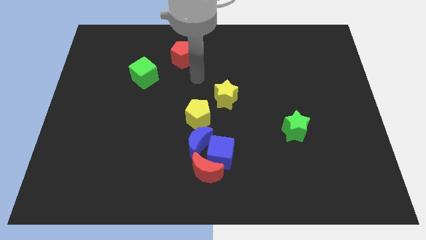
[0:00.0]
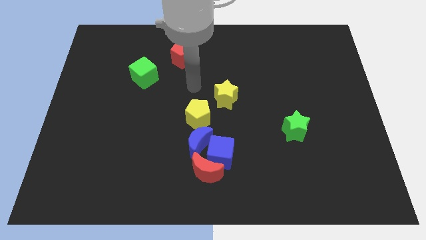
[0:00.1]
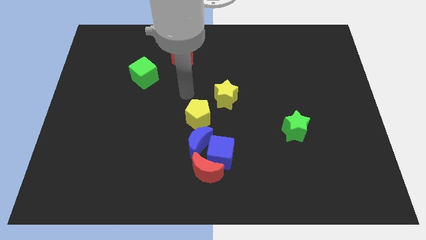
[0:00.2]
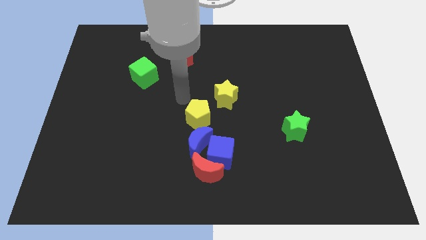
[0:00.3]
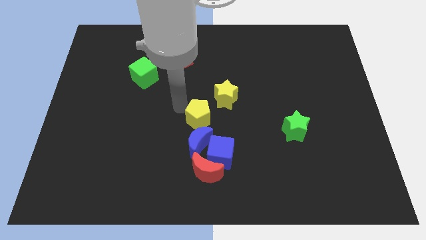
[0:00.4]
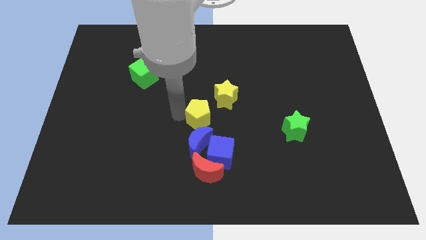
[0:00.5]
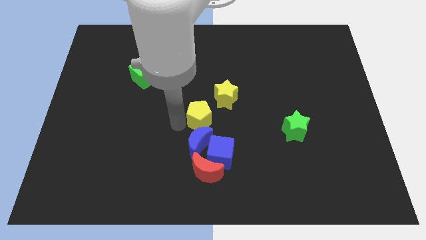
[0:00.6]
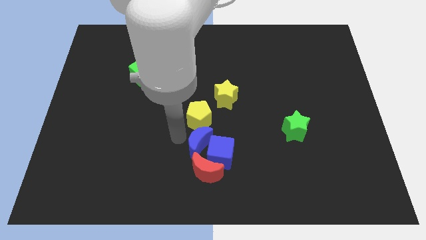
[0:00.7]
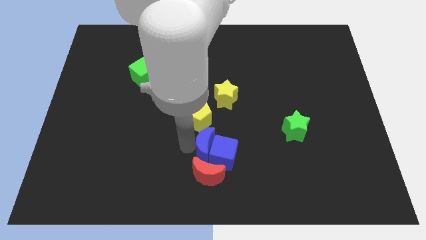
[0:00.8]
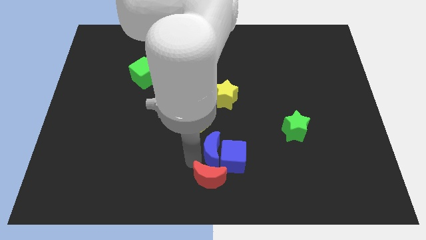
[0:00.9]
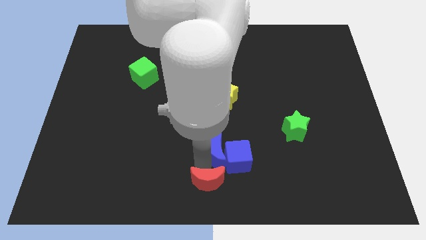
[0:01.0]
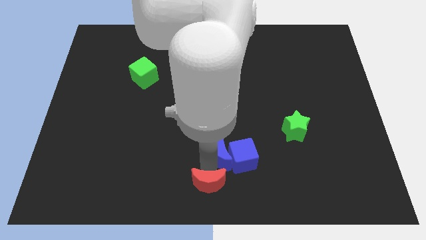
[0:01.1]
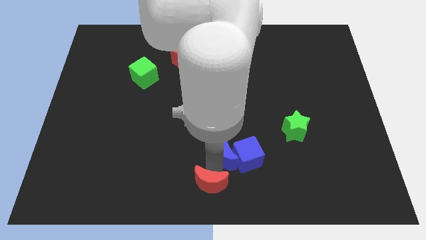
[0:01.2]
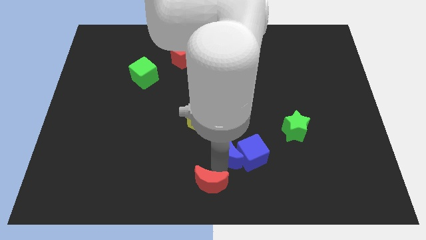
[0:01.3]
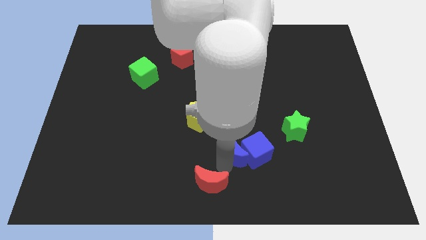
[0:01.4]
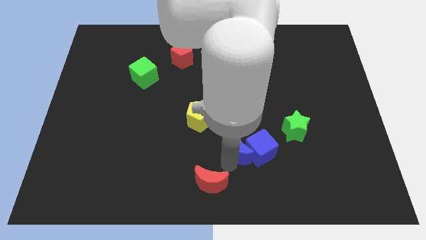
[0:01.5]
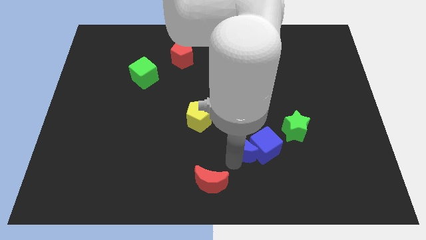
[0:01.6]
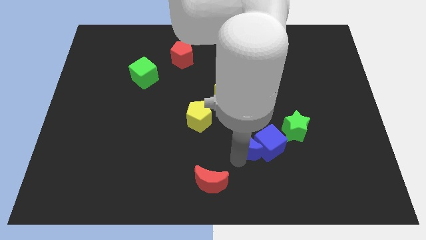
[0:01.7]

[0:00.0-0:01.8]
separate the blue cube from the red moon and blue moon

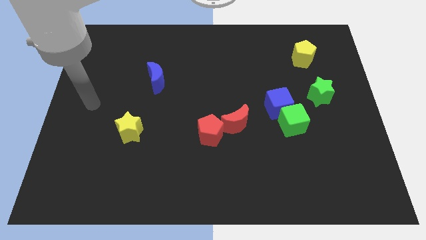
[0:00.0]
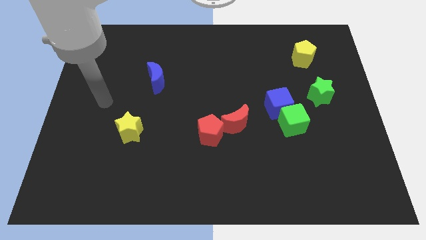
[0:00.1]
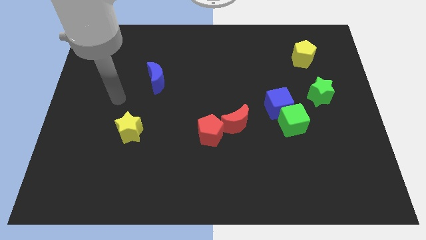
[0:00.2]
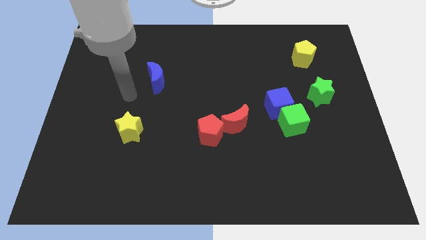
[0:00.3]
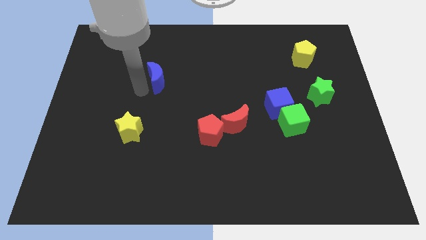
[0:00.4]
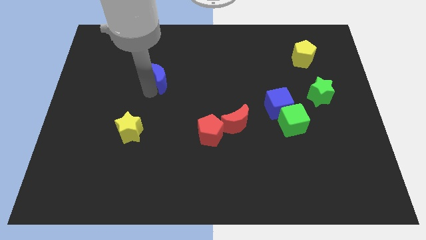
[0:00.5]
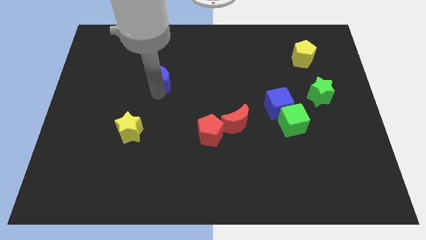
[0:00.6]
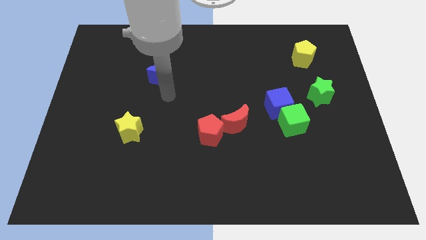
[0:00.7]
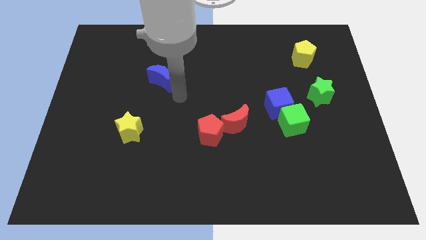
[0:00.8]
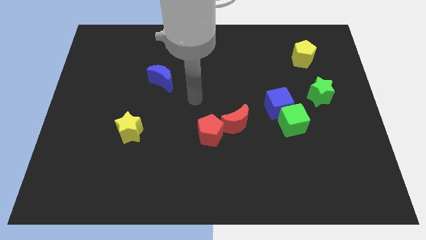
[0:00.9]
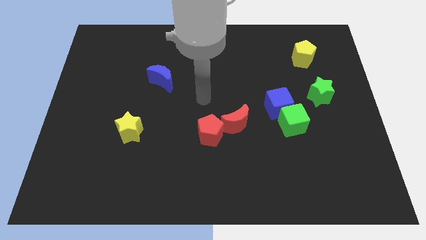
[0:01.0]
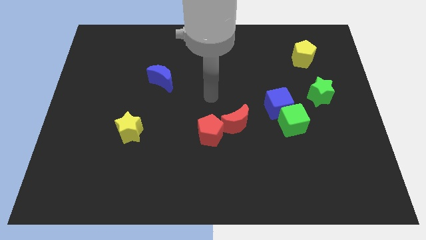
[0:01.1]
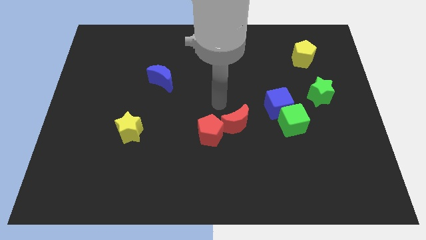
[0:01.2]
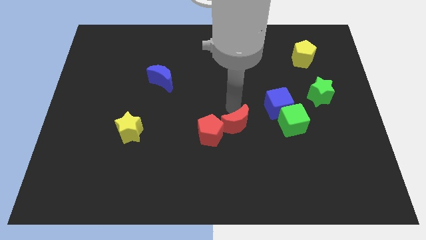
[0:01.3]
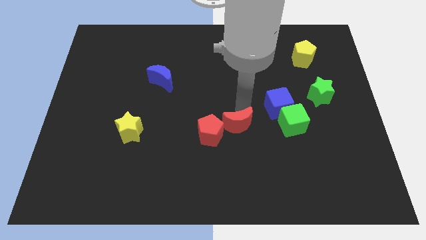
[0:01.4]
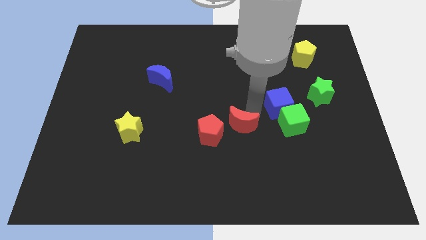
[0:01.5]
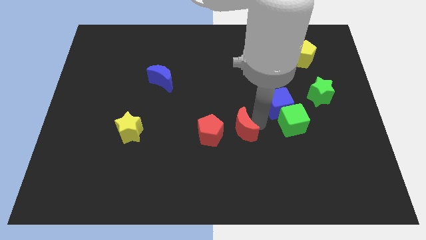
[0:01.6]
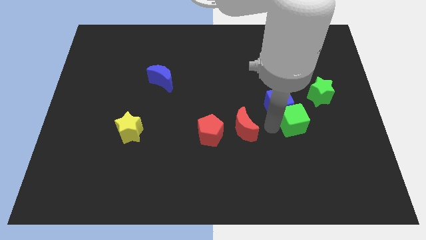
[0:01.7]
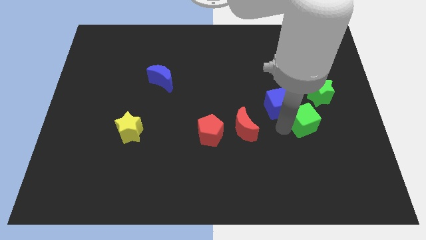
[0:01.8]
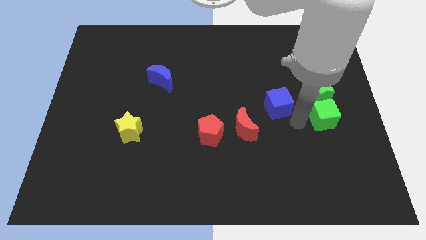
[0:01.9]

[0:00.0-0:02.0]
separate the blue cube from the green cube

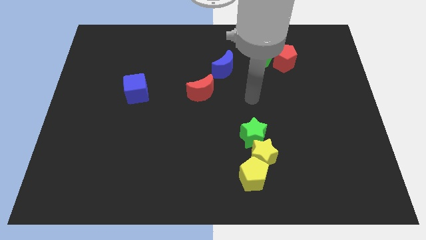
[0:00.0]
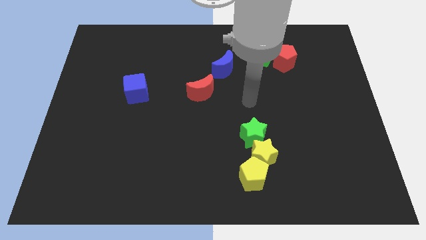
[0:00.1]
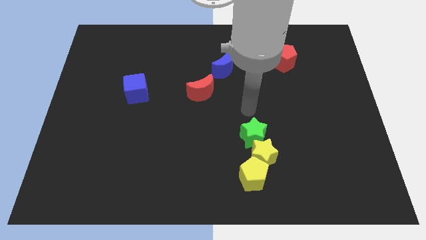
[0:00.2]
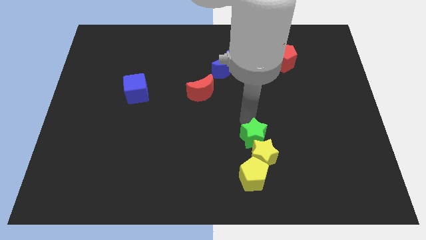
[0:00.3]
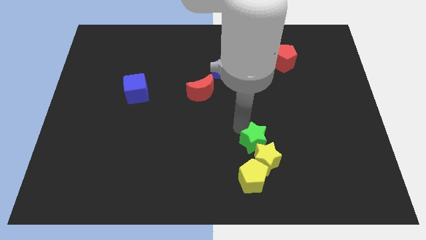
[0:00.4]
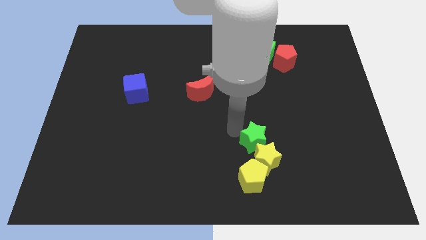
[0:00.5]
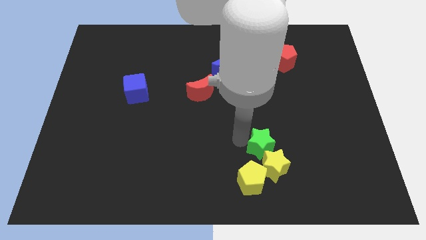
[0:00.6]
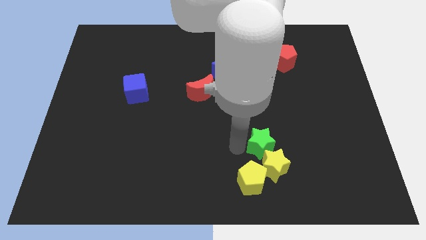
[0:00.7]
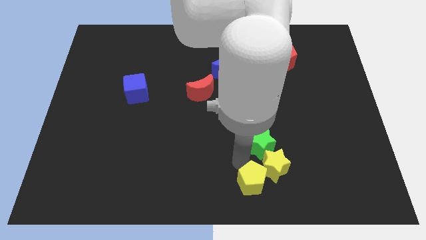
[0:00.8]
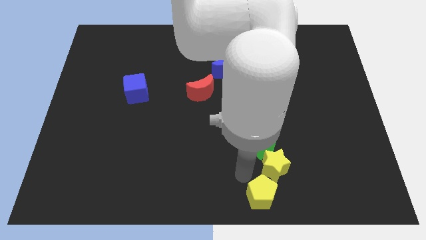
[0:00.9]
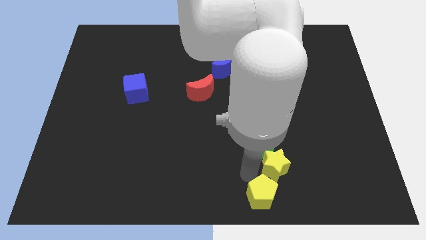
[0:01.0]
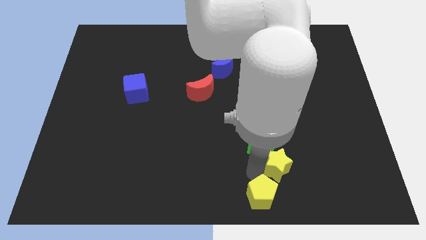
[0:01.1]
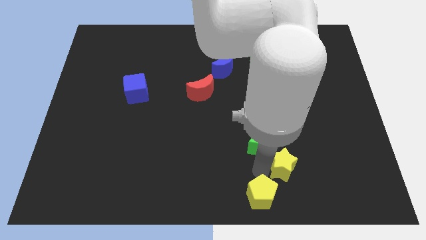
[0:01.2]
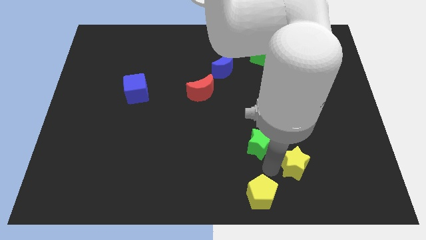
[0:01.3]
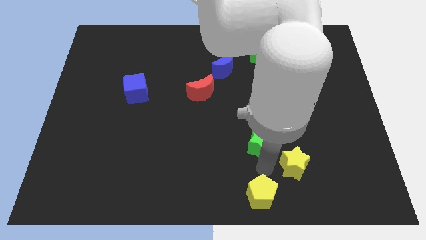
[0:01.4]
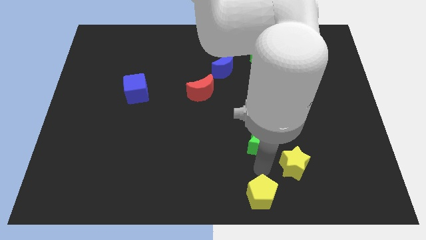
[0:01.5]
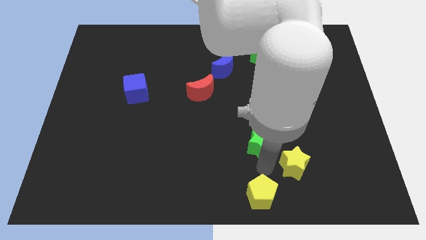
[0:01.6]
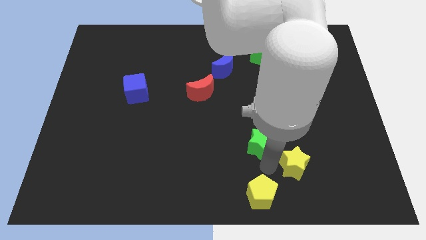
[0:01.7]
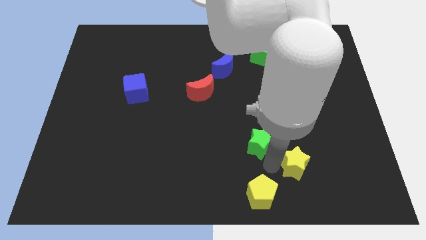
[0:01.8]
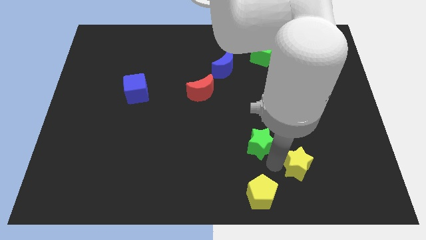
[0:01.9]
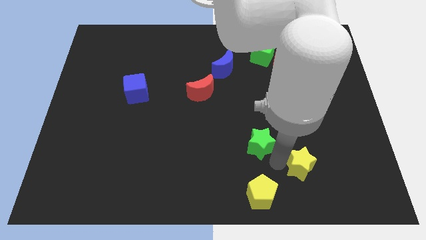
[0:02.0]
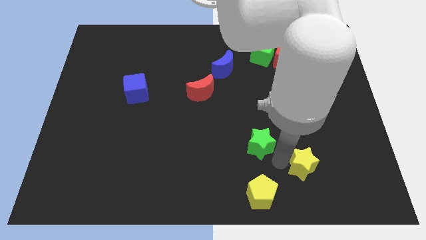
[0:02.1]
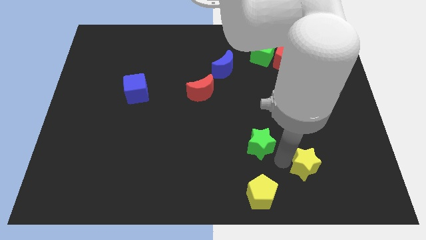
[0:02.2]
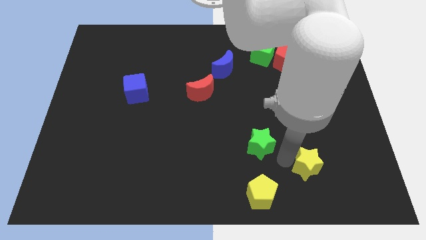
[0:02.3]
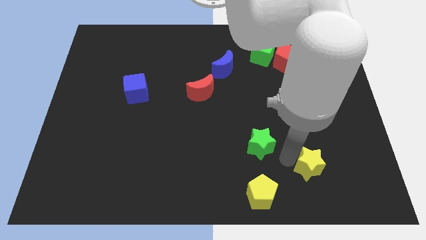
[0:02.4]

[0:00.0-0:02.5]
move the yellow star away from the yellow pentagon and green star

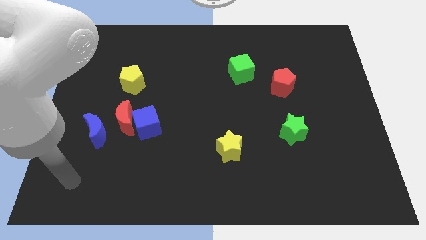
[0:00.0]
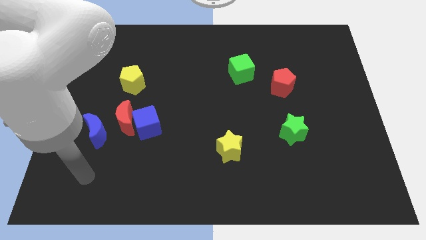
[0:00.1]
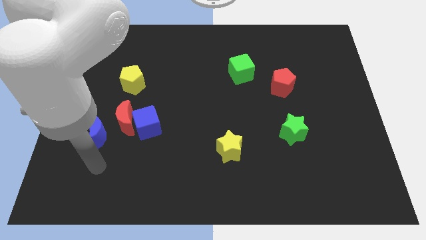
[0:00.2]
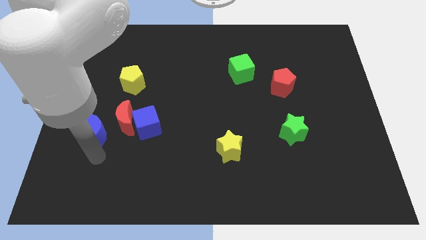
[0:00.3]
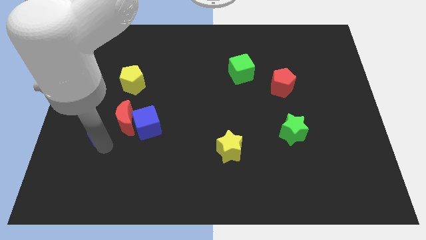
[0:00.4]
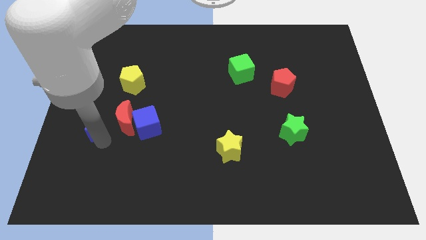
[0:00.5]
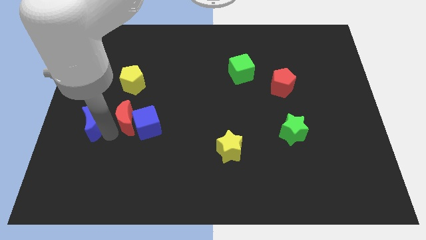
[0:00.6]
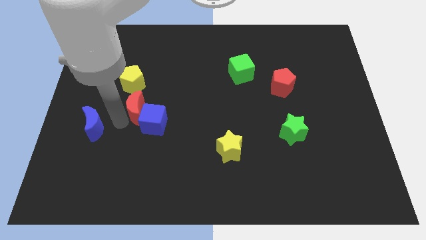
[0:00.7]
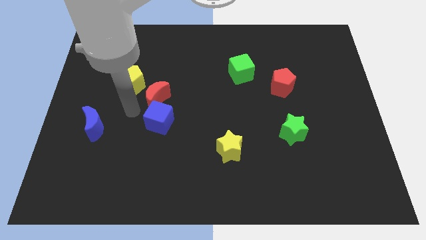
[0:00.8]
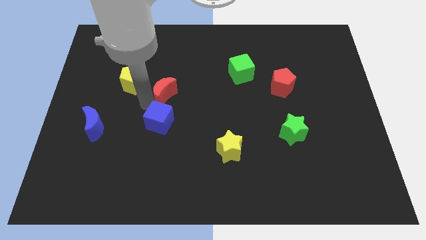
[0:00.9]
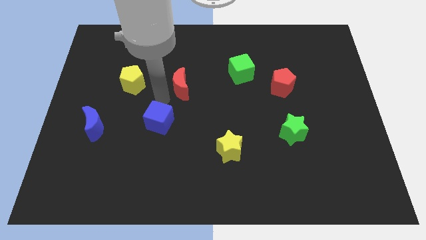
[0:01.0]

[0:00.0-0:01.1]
separate the blue cube from the red moon

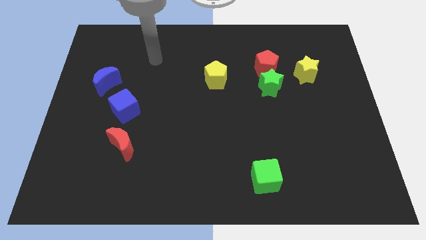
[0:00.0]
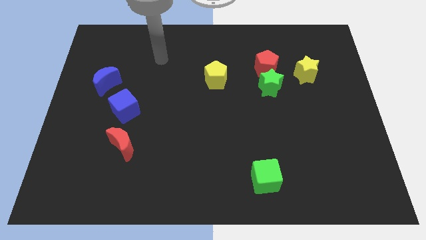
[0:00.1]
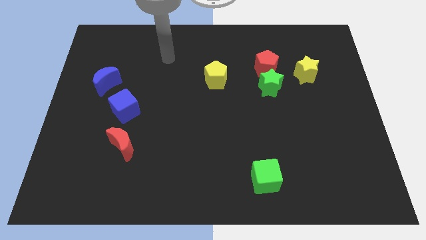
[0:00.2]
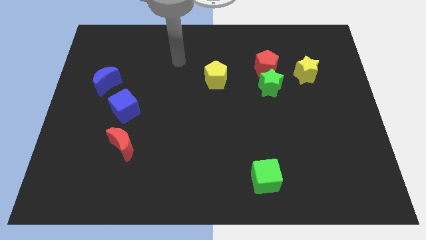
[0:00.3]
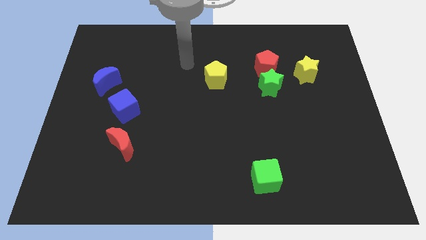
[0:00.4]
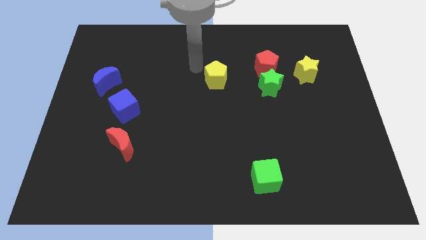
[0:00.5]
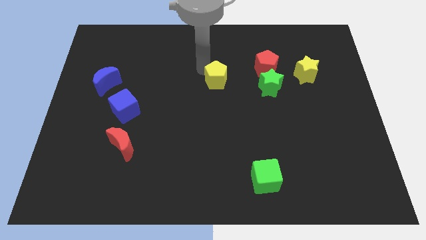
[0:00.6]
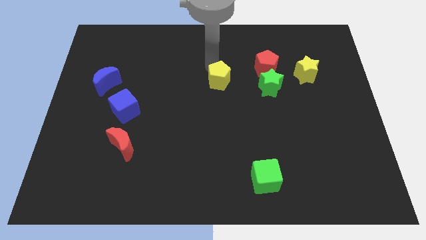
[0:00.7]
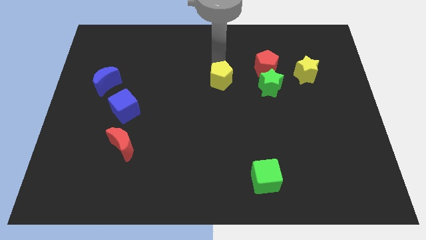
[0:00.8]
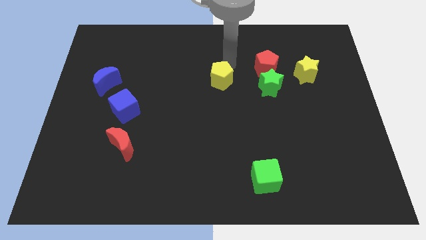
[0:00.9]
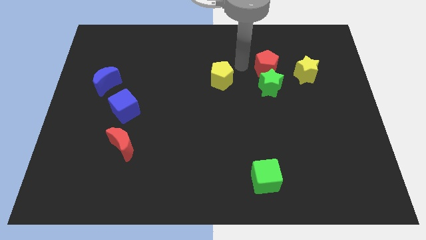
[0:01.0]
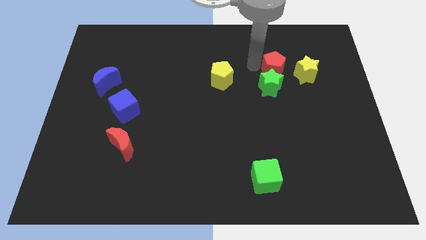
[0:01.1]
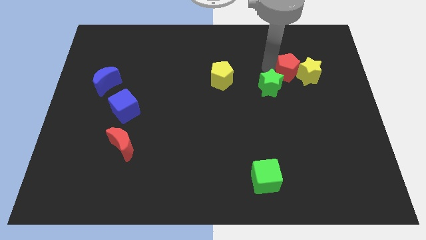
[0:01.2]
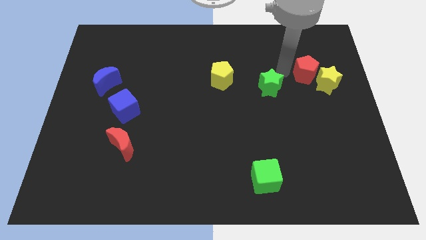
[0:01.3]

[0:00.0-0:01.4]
pull the green star apart from the red pentagon

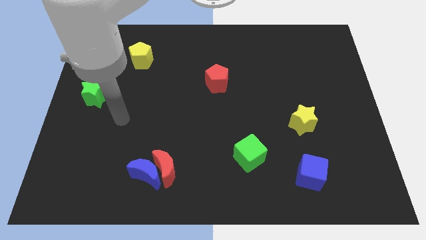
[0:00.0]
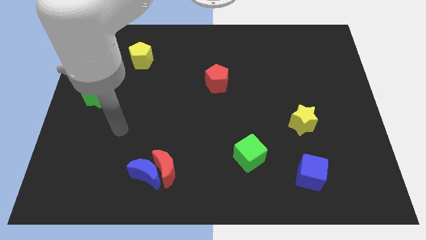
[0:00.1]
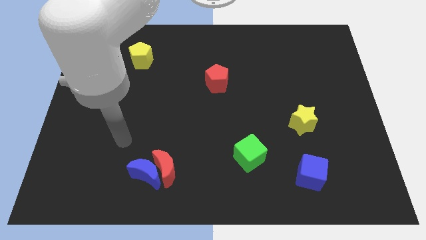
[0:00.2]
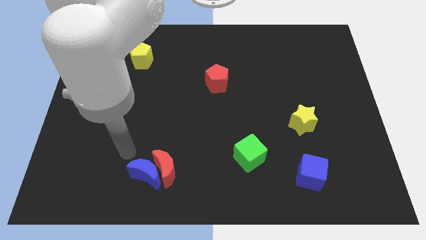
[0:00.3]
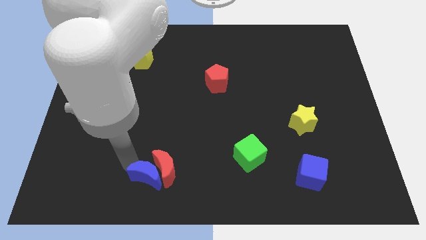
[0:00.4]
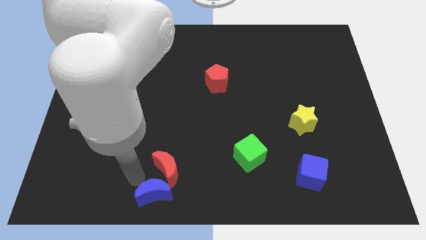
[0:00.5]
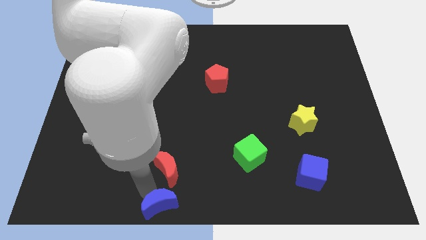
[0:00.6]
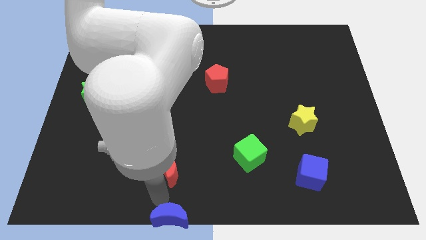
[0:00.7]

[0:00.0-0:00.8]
move the red moon away from the blue moon
